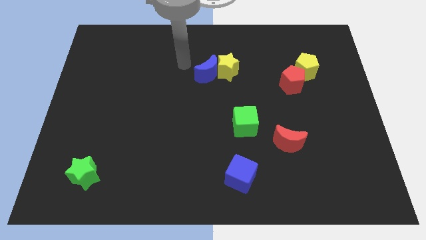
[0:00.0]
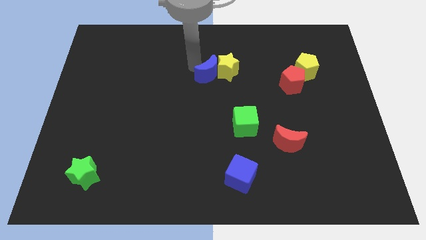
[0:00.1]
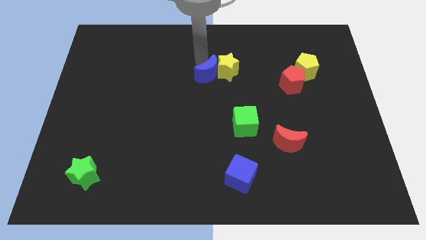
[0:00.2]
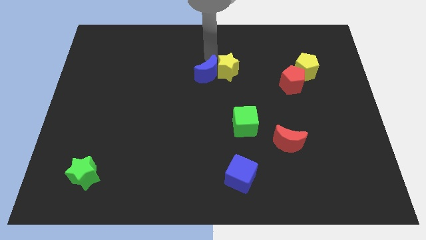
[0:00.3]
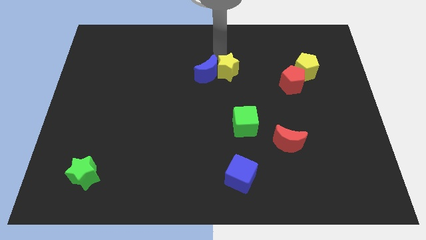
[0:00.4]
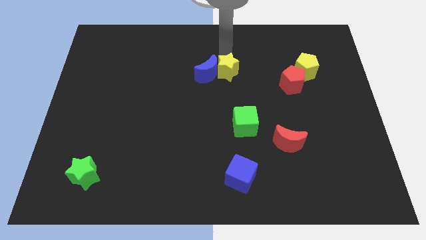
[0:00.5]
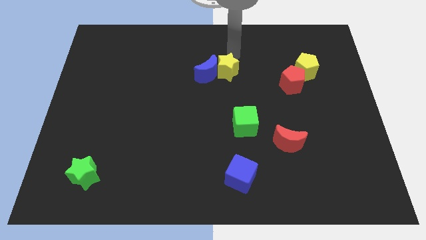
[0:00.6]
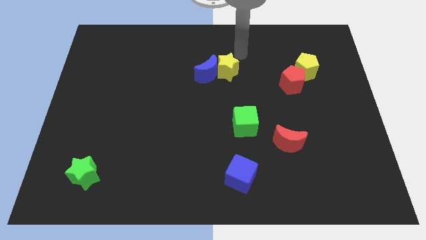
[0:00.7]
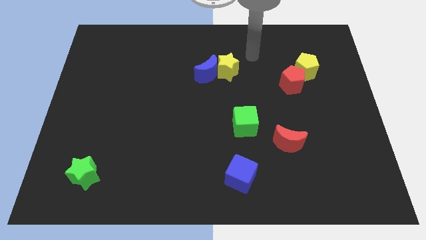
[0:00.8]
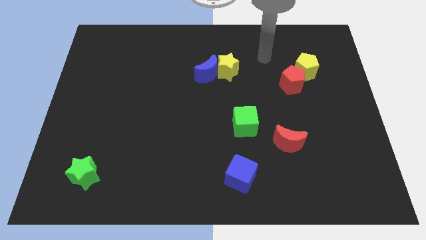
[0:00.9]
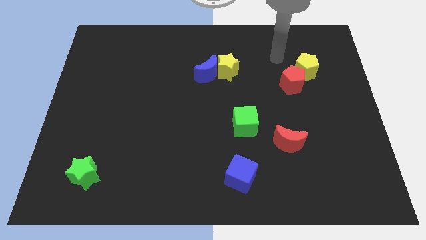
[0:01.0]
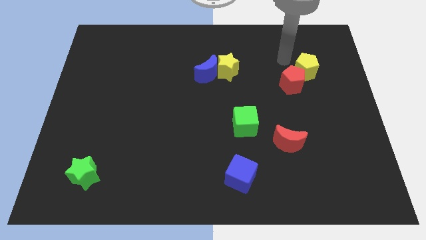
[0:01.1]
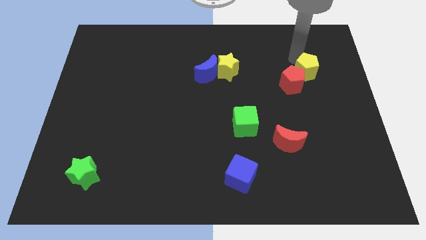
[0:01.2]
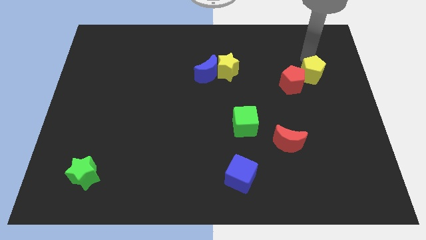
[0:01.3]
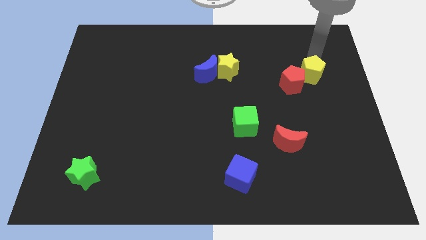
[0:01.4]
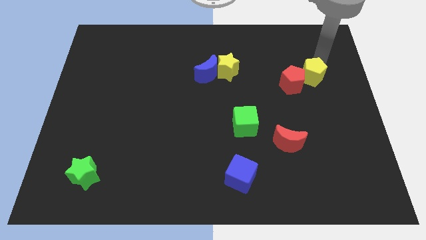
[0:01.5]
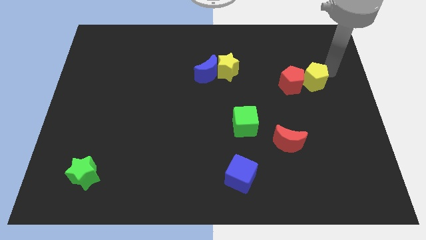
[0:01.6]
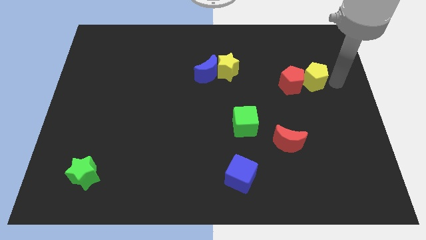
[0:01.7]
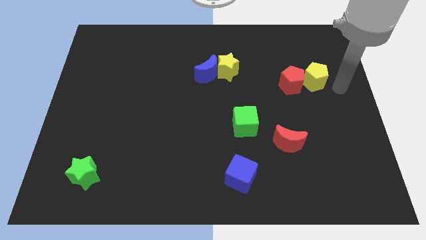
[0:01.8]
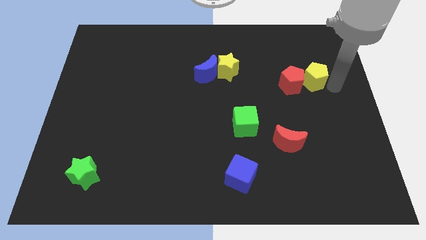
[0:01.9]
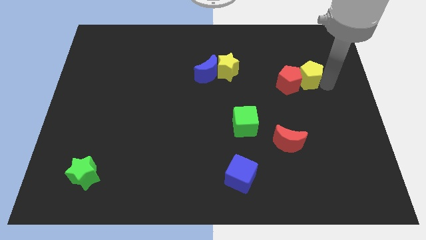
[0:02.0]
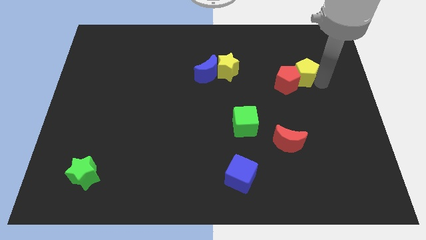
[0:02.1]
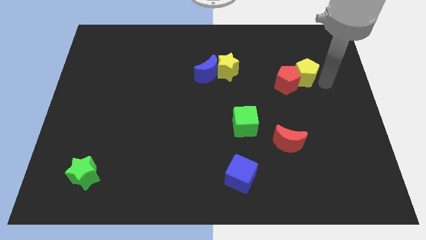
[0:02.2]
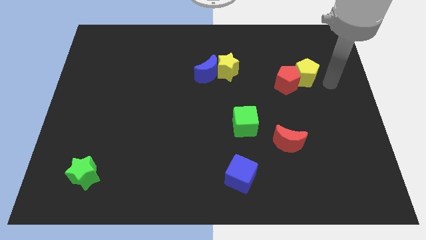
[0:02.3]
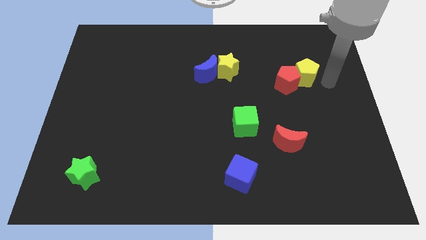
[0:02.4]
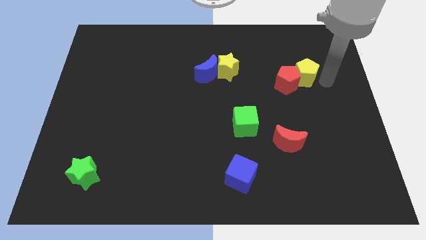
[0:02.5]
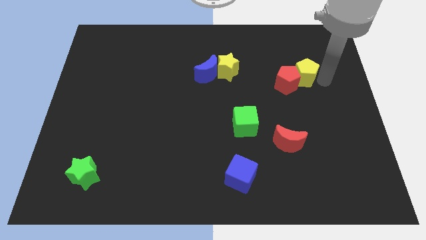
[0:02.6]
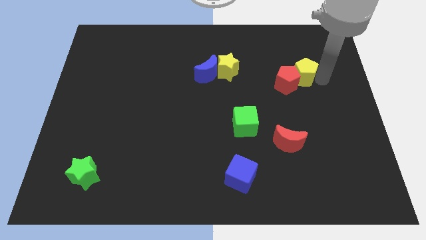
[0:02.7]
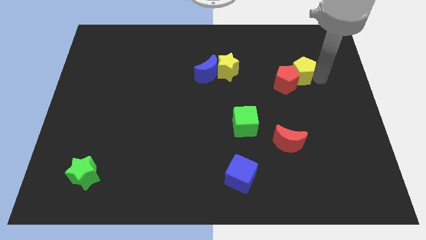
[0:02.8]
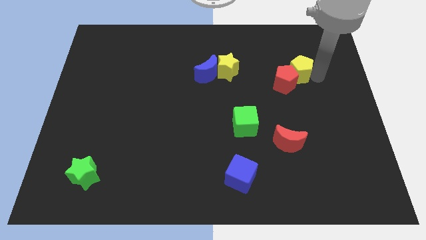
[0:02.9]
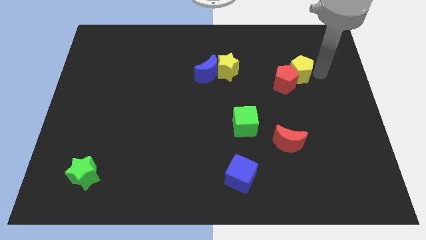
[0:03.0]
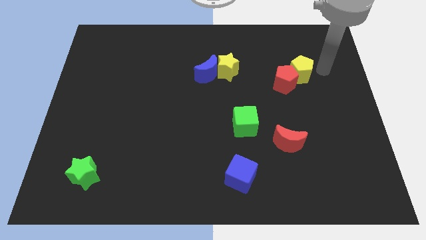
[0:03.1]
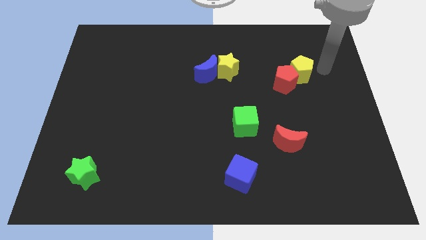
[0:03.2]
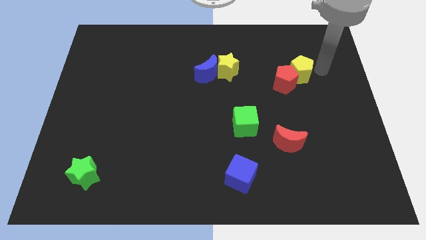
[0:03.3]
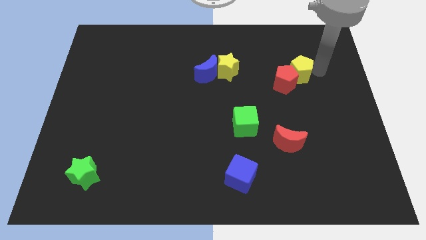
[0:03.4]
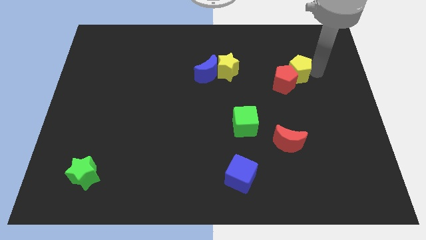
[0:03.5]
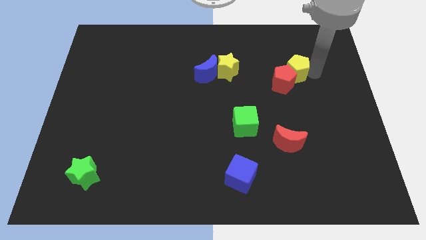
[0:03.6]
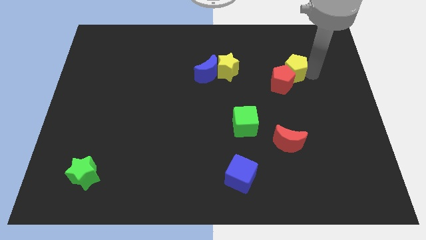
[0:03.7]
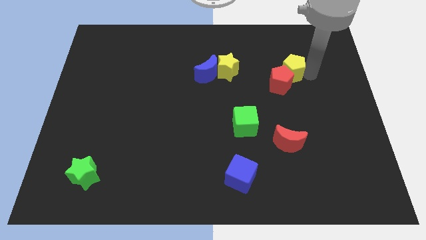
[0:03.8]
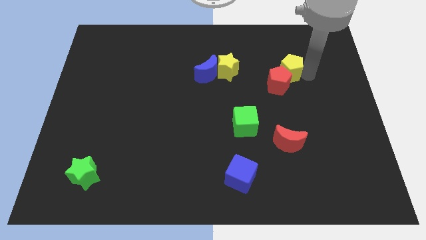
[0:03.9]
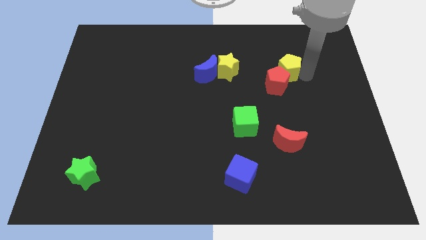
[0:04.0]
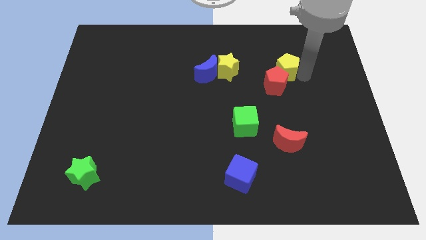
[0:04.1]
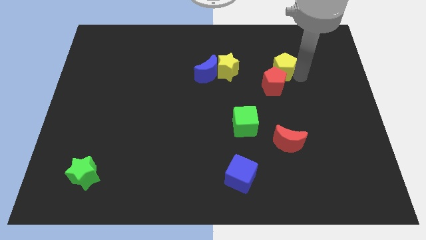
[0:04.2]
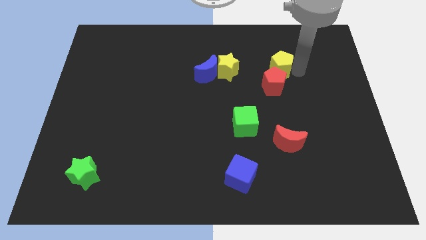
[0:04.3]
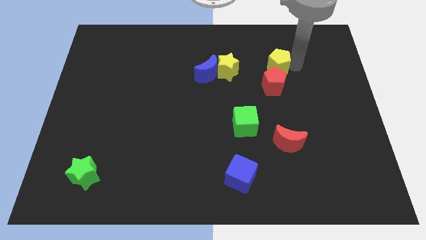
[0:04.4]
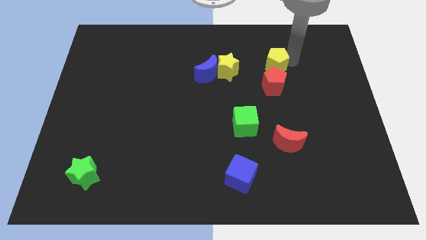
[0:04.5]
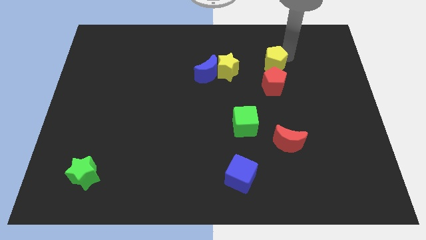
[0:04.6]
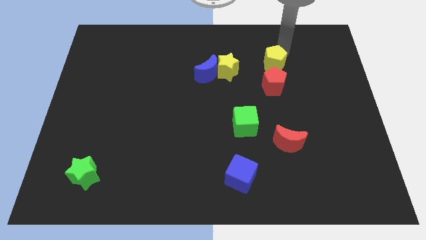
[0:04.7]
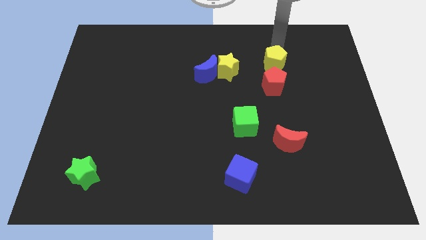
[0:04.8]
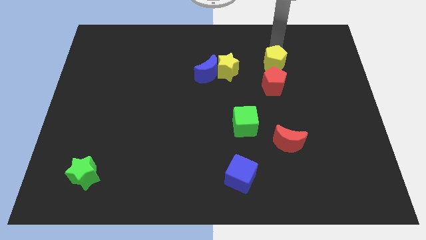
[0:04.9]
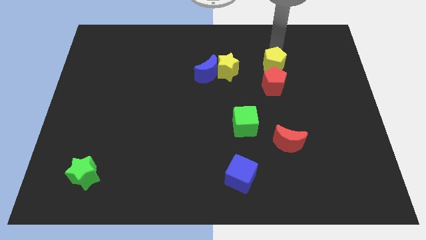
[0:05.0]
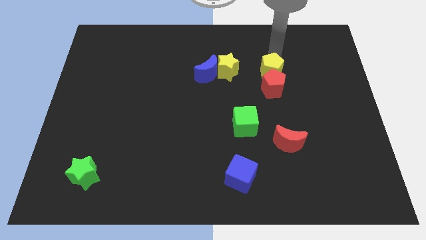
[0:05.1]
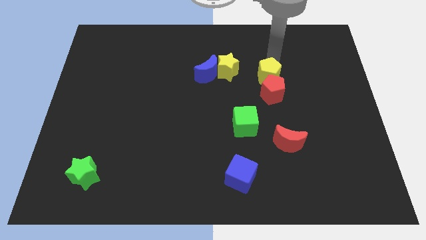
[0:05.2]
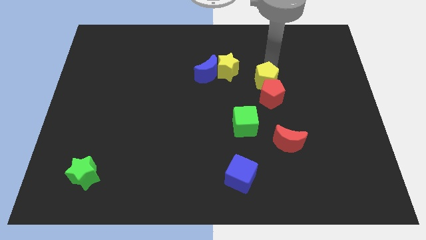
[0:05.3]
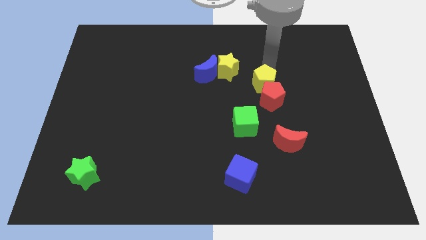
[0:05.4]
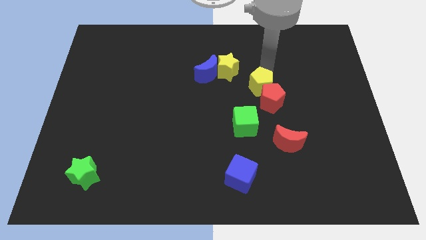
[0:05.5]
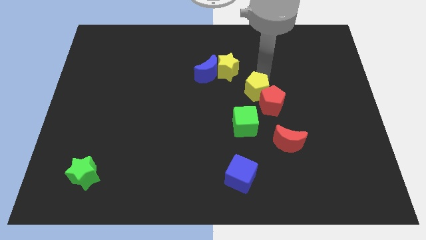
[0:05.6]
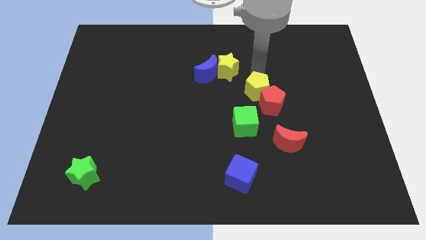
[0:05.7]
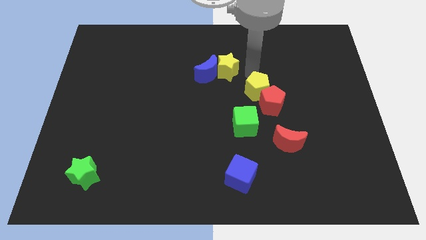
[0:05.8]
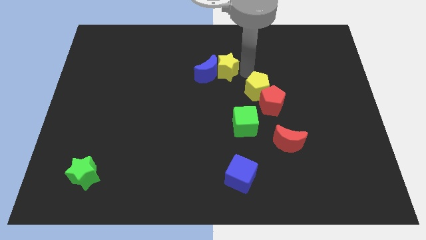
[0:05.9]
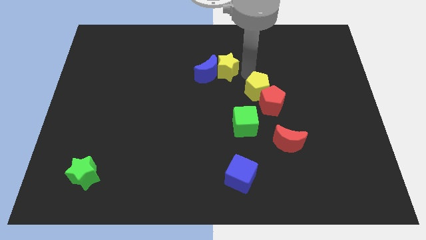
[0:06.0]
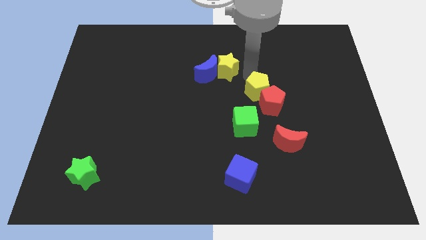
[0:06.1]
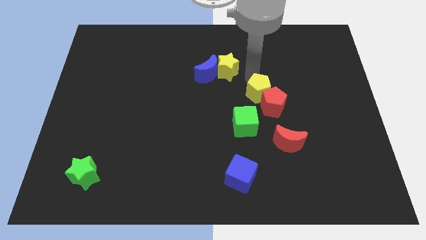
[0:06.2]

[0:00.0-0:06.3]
slide the yellow pentagon to the top right side of the green cube

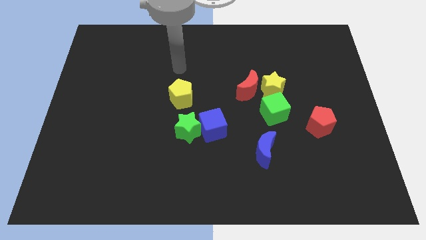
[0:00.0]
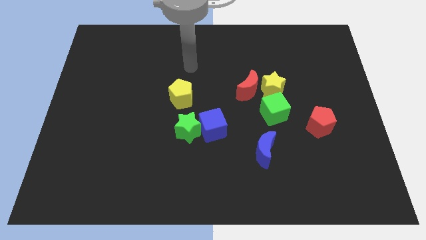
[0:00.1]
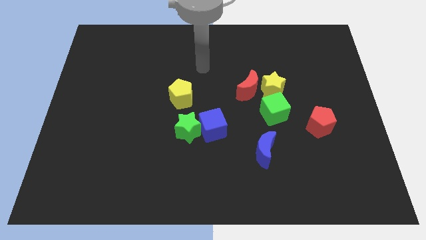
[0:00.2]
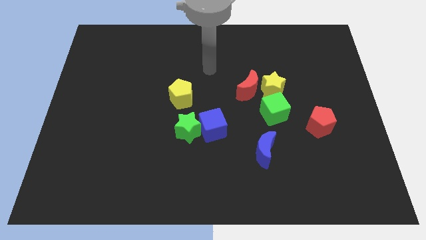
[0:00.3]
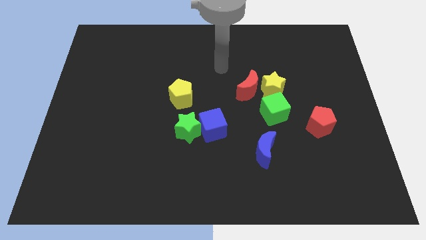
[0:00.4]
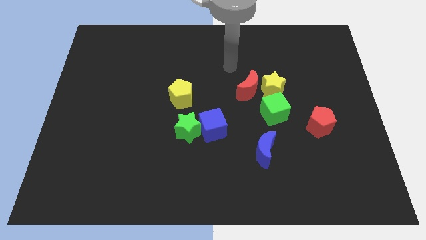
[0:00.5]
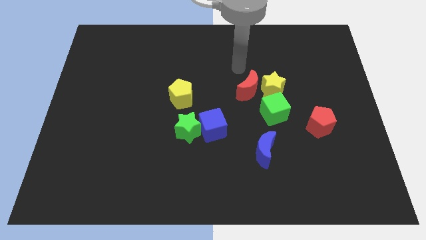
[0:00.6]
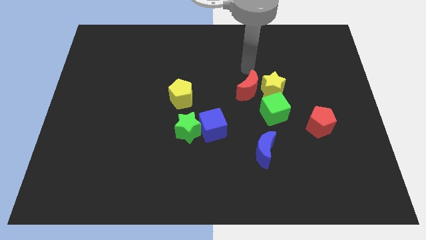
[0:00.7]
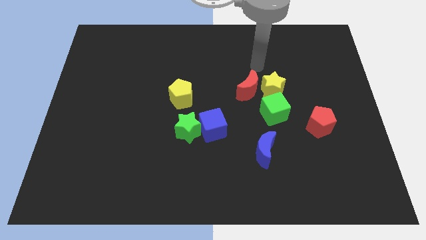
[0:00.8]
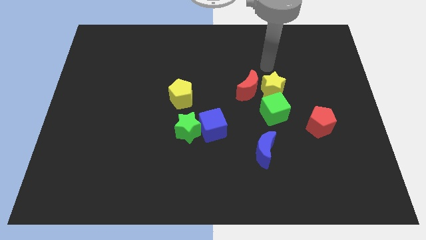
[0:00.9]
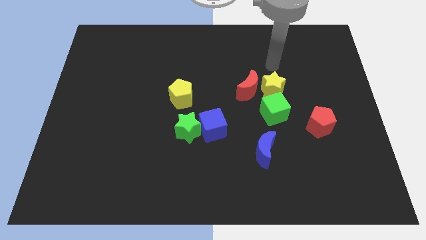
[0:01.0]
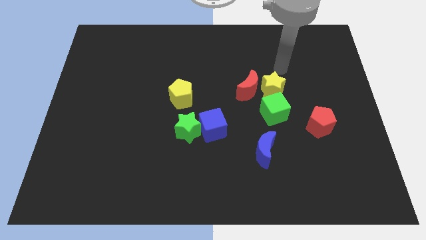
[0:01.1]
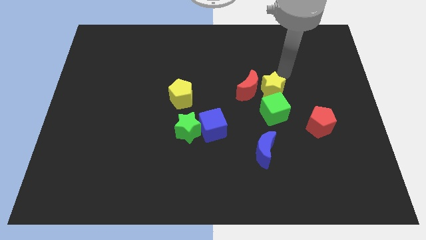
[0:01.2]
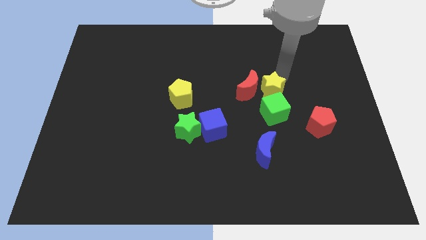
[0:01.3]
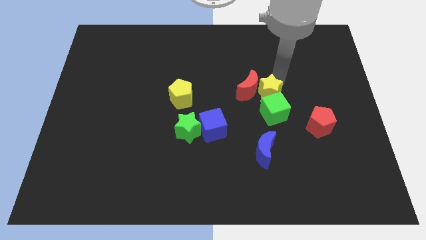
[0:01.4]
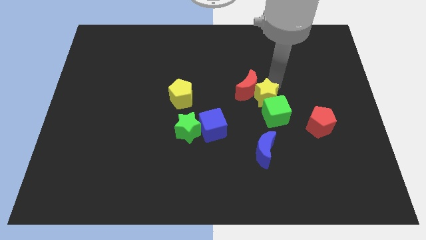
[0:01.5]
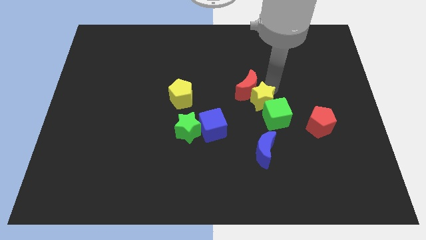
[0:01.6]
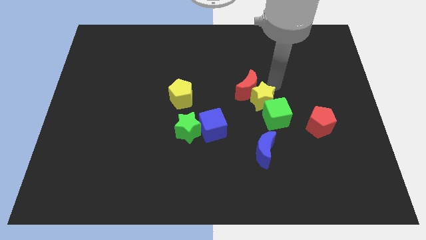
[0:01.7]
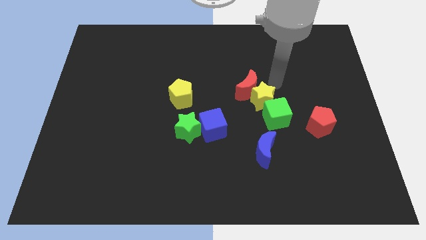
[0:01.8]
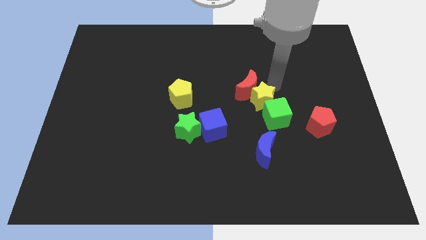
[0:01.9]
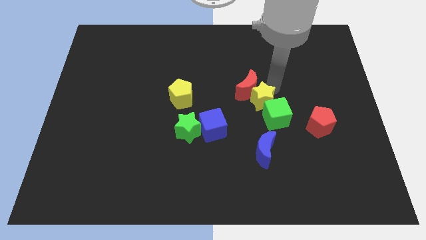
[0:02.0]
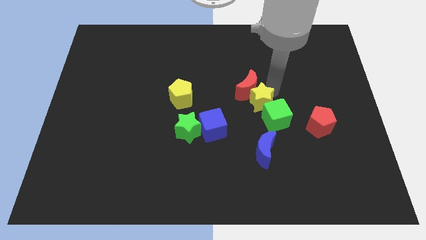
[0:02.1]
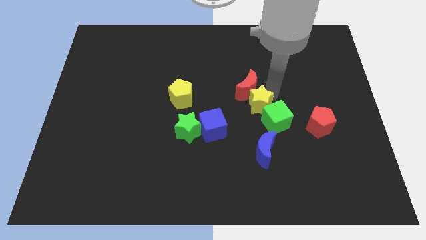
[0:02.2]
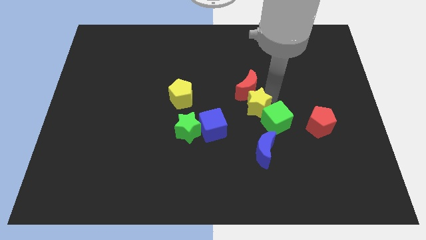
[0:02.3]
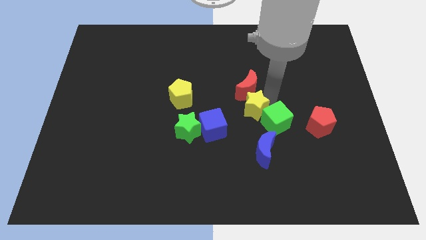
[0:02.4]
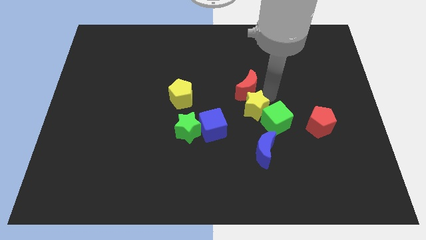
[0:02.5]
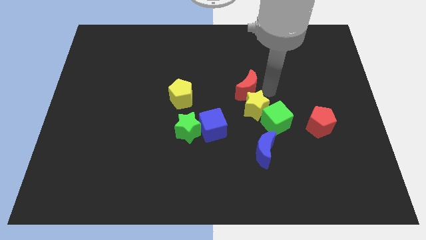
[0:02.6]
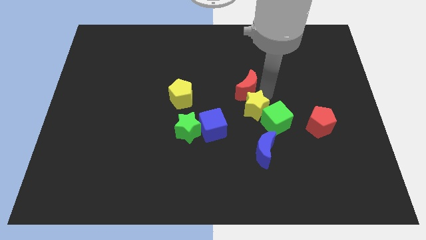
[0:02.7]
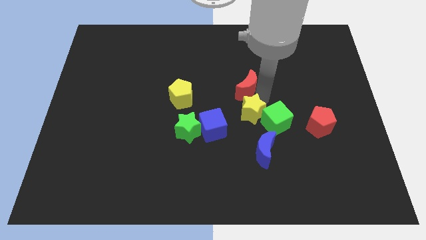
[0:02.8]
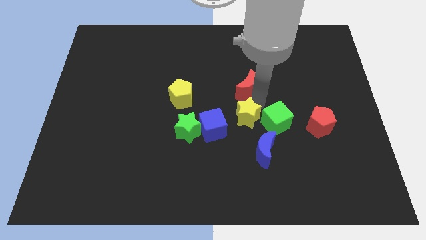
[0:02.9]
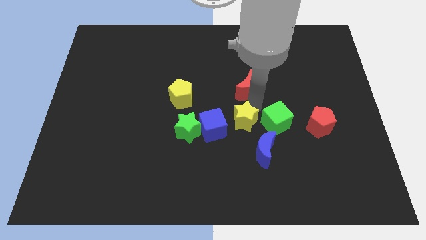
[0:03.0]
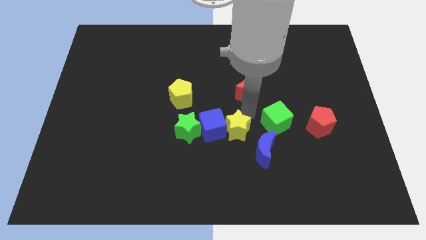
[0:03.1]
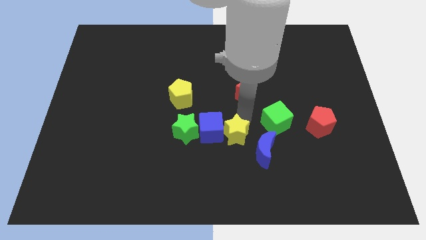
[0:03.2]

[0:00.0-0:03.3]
put the yellow star just left of the blue moon
